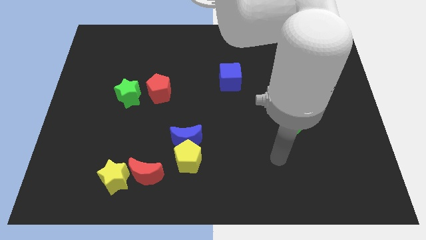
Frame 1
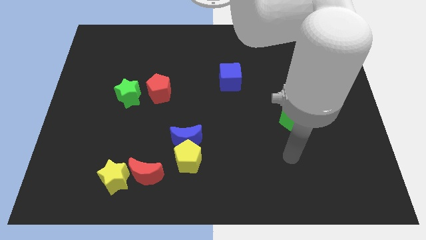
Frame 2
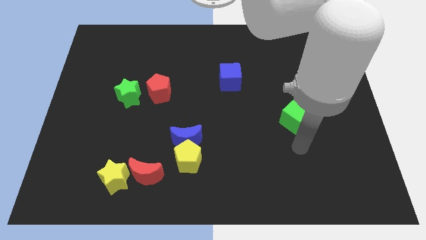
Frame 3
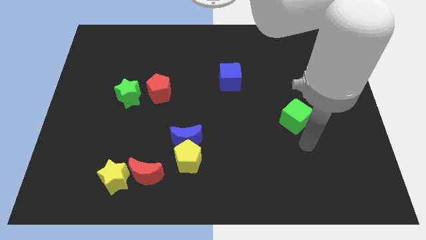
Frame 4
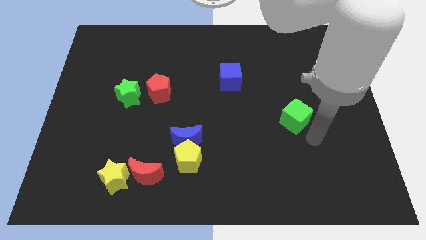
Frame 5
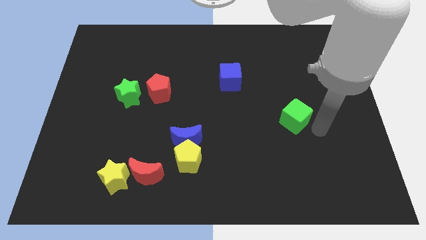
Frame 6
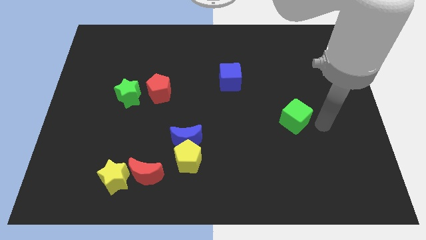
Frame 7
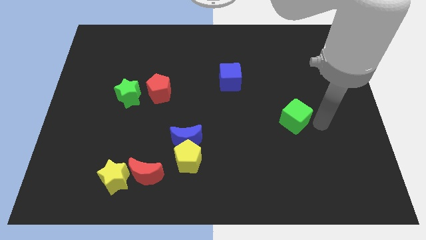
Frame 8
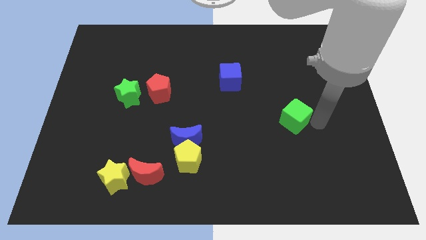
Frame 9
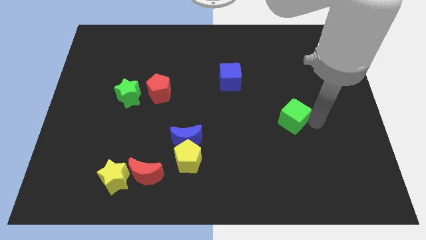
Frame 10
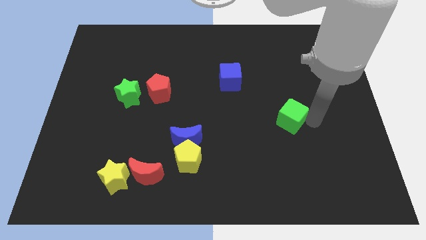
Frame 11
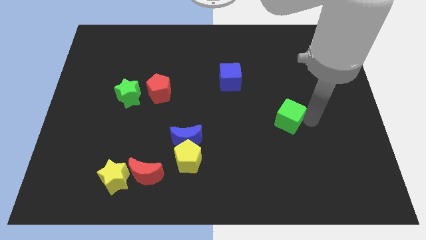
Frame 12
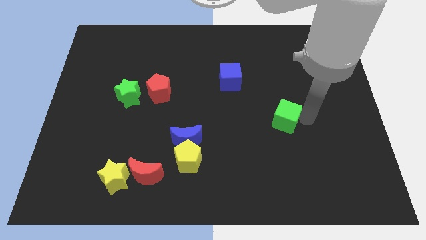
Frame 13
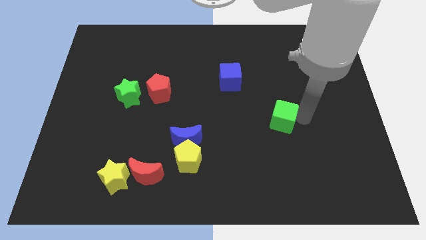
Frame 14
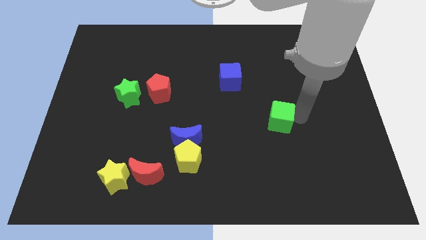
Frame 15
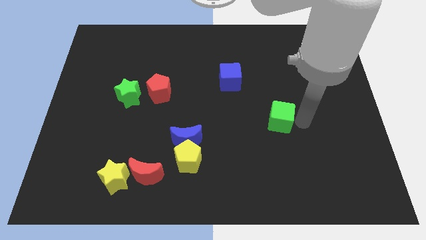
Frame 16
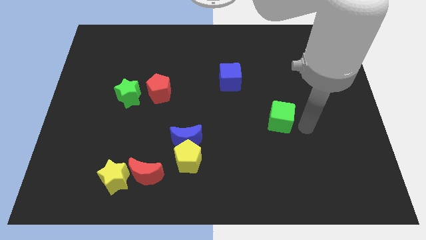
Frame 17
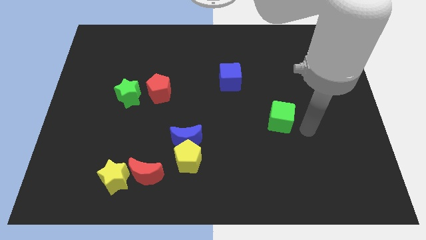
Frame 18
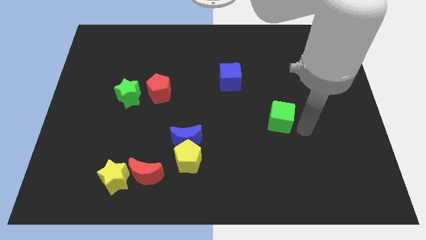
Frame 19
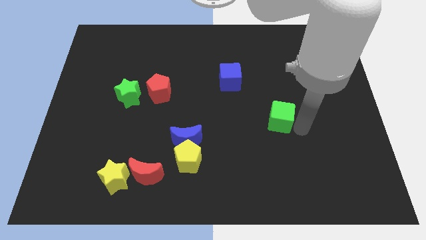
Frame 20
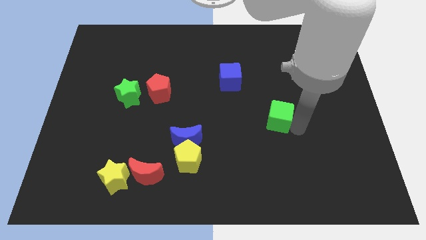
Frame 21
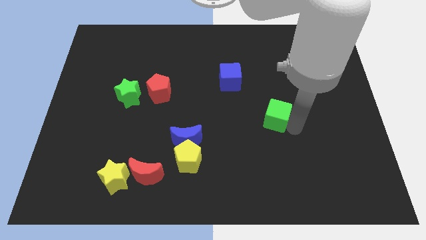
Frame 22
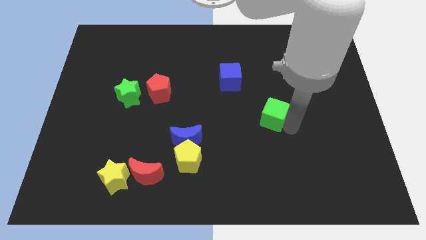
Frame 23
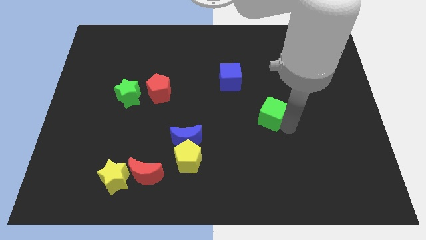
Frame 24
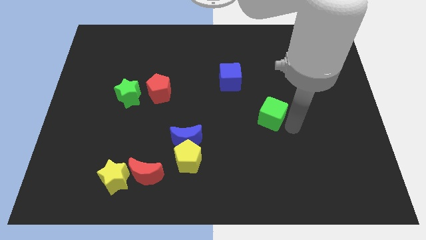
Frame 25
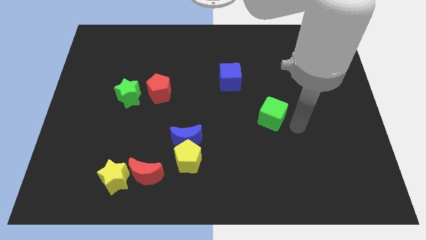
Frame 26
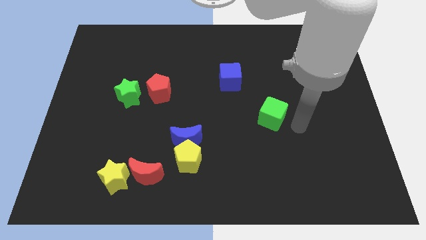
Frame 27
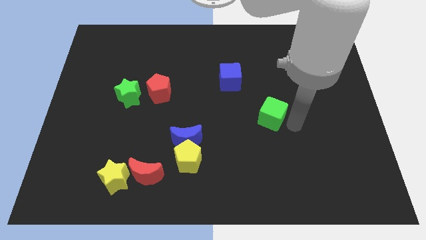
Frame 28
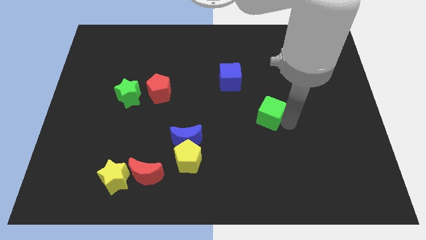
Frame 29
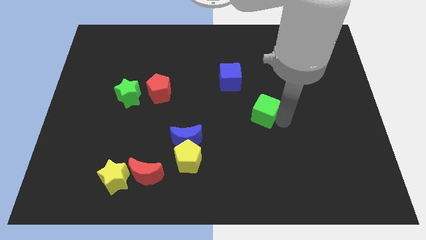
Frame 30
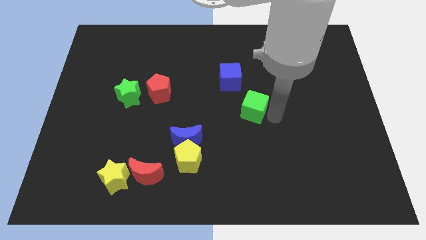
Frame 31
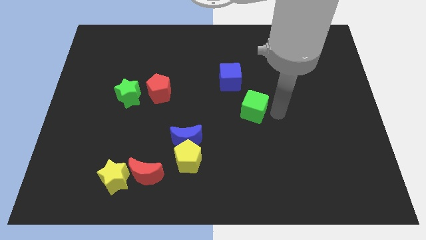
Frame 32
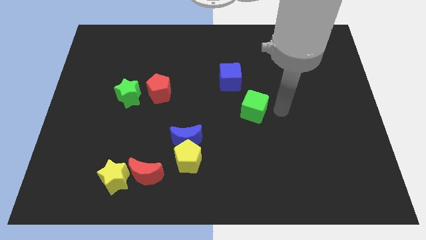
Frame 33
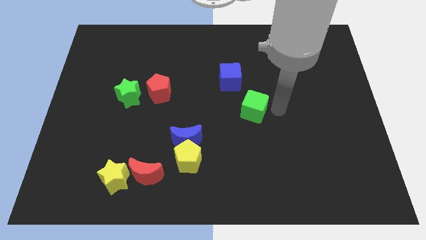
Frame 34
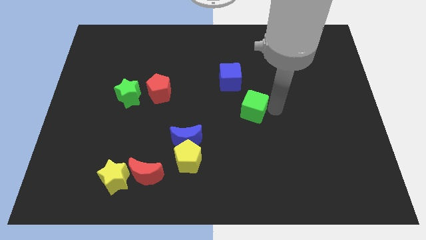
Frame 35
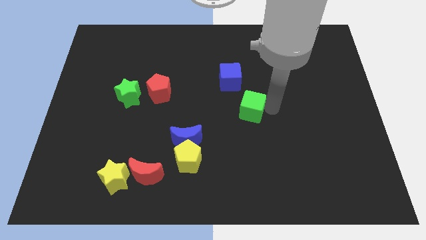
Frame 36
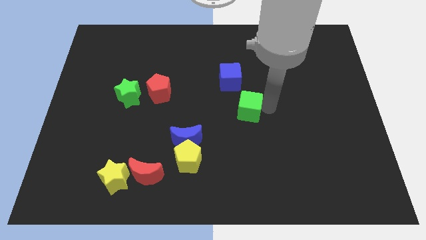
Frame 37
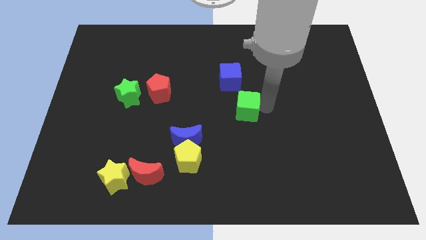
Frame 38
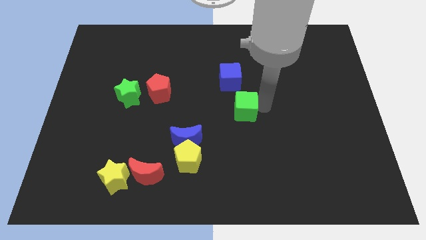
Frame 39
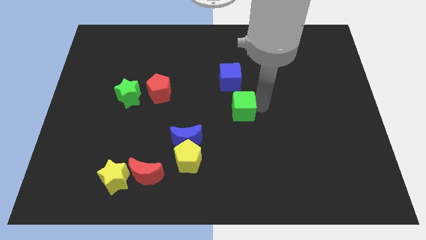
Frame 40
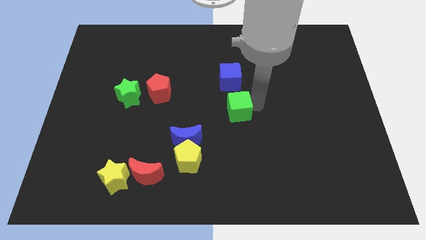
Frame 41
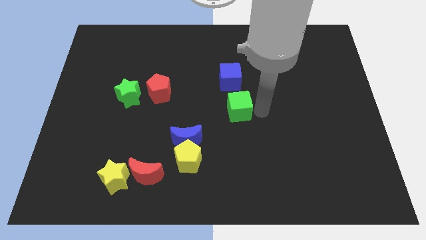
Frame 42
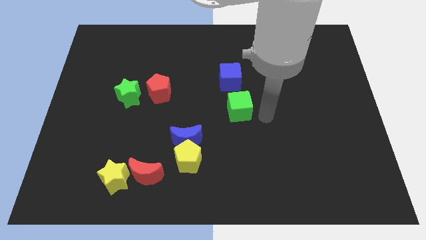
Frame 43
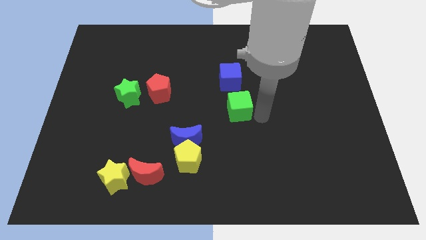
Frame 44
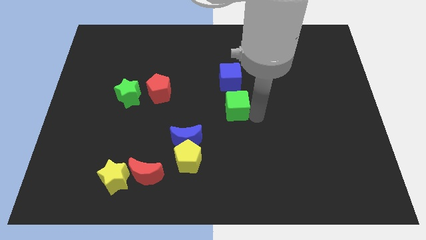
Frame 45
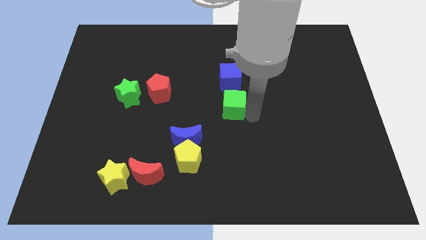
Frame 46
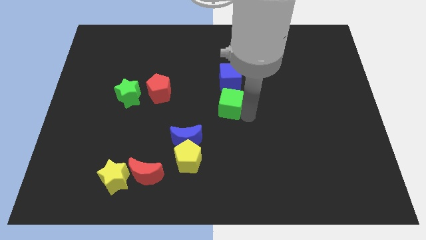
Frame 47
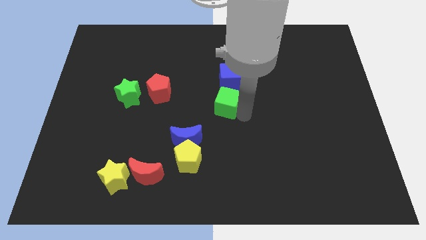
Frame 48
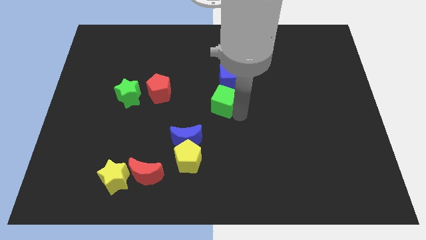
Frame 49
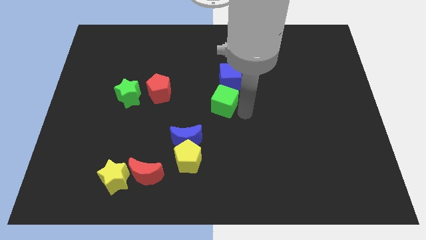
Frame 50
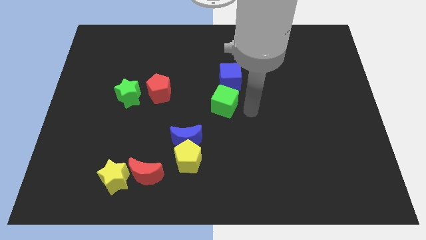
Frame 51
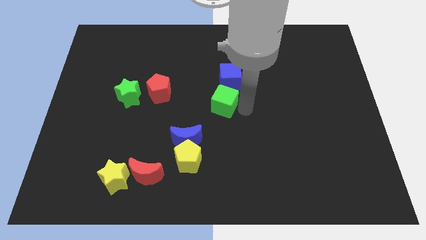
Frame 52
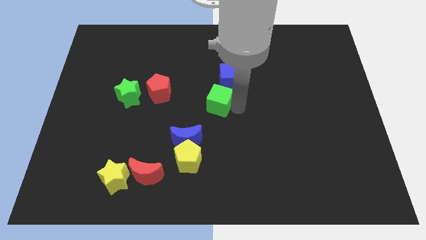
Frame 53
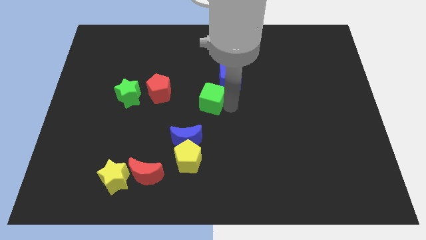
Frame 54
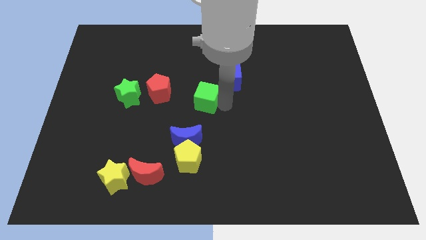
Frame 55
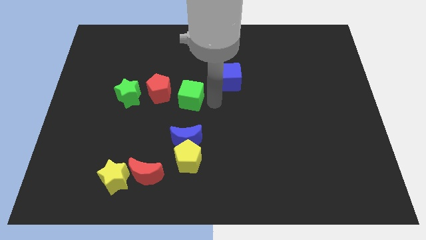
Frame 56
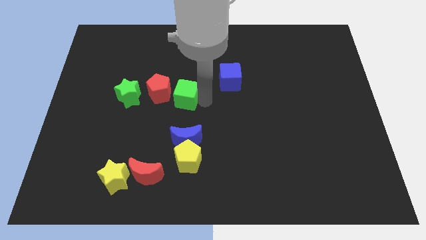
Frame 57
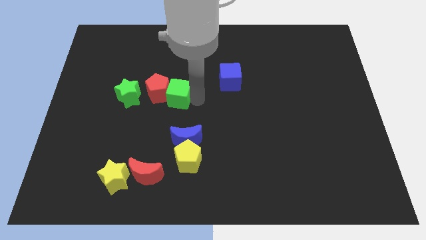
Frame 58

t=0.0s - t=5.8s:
slide the green cube close to the red pentagon

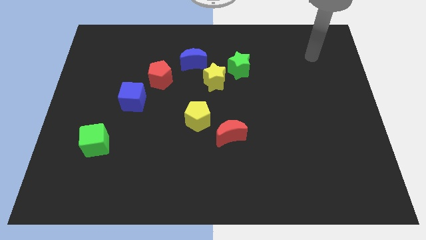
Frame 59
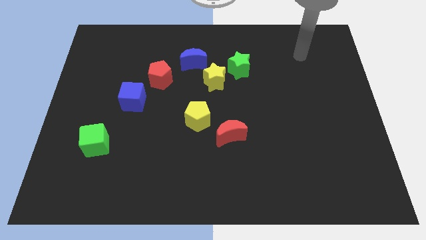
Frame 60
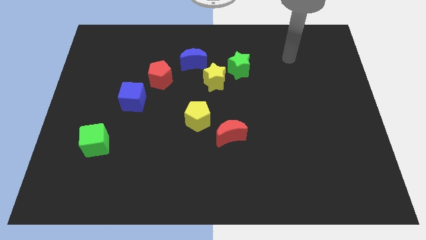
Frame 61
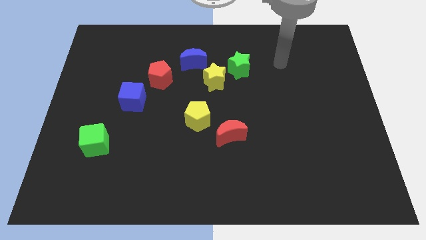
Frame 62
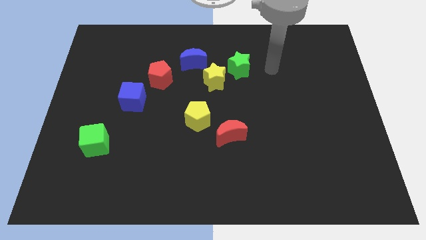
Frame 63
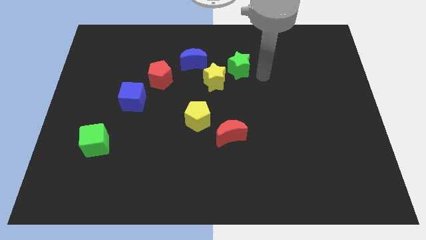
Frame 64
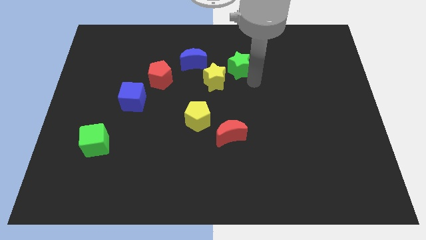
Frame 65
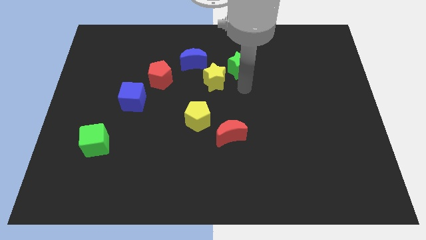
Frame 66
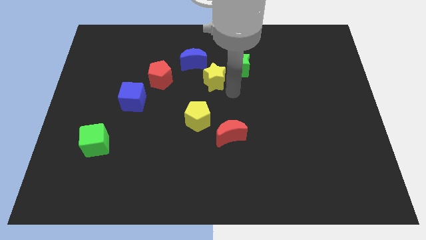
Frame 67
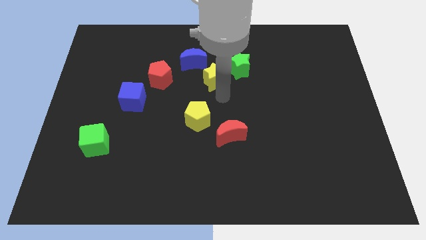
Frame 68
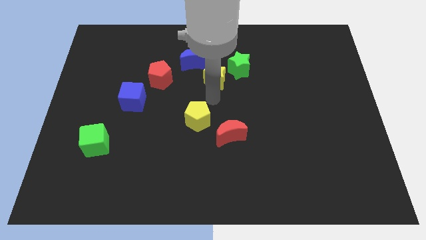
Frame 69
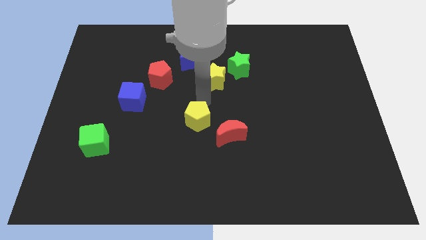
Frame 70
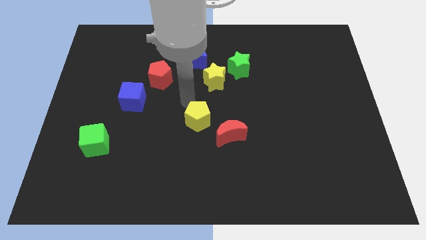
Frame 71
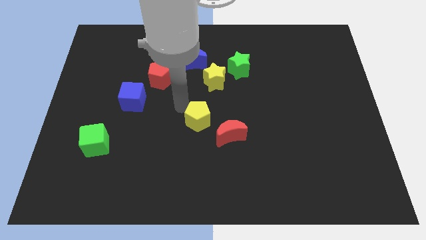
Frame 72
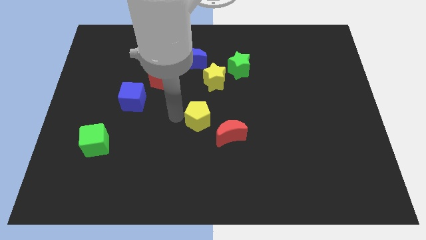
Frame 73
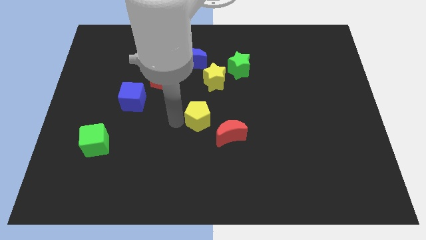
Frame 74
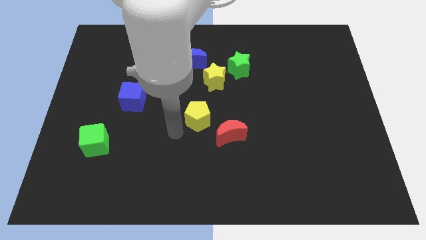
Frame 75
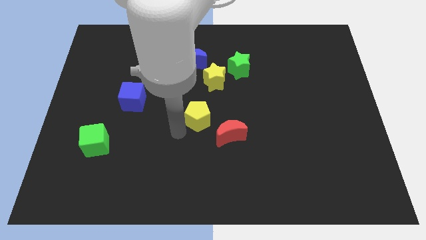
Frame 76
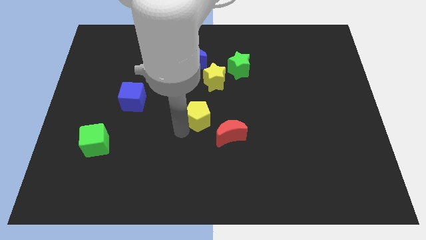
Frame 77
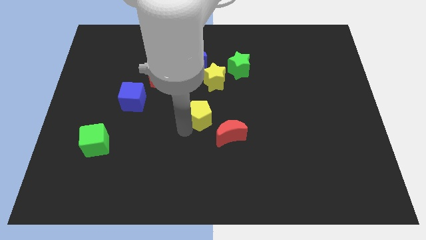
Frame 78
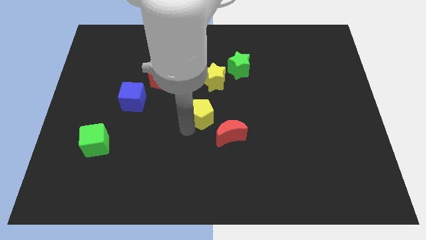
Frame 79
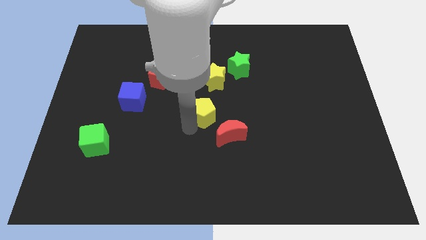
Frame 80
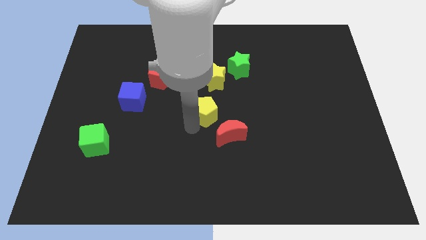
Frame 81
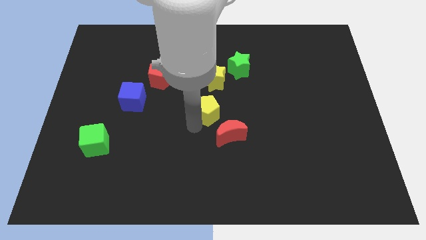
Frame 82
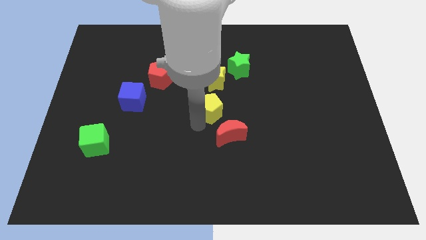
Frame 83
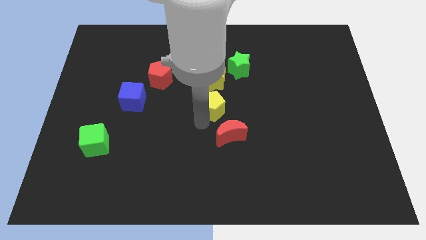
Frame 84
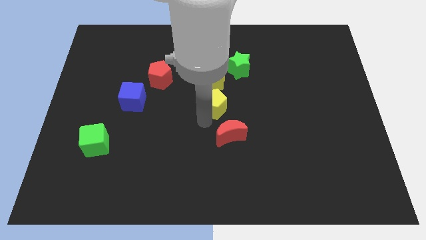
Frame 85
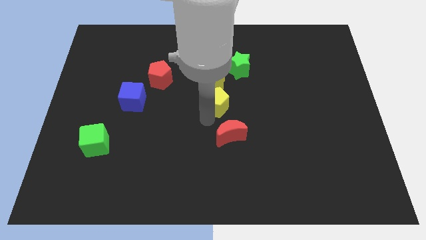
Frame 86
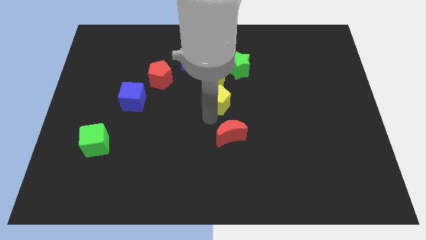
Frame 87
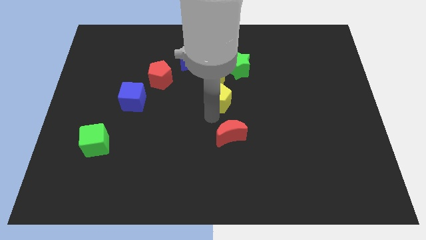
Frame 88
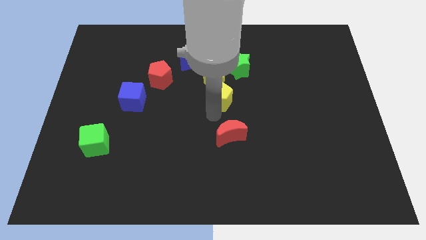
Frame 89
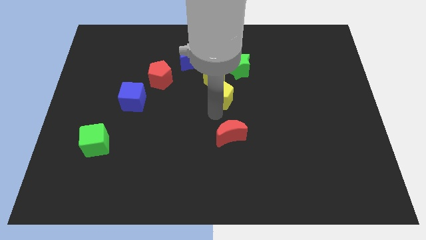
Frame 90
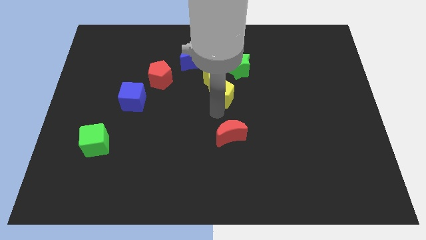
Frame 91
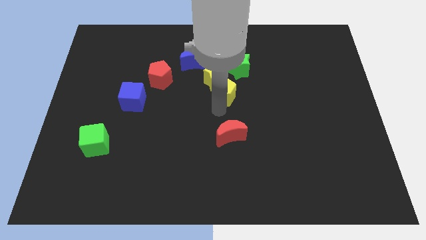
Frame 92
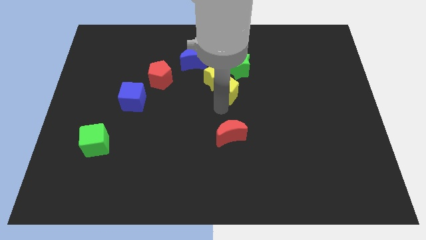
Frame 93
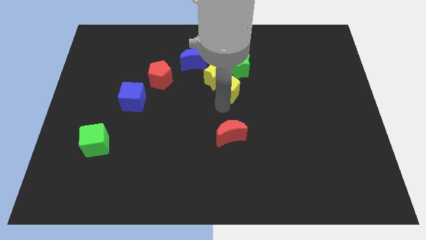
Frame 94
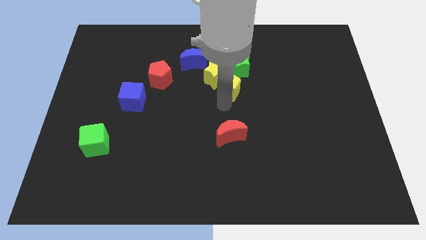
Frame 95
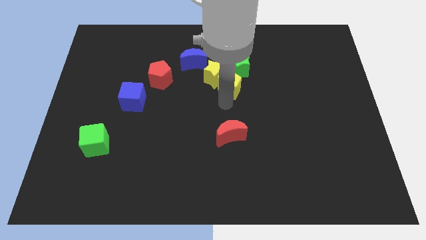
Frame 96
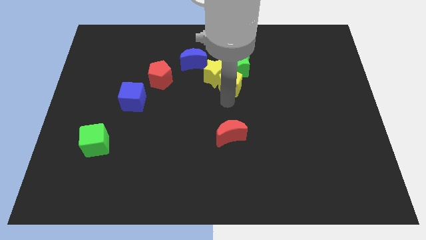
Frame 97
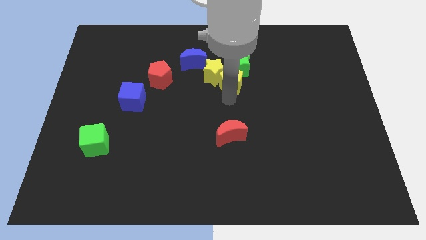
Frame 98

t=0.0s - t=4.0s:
slide the yellow pentagon next to the green star
